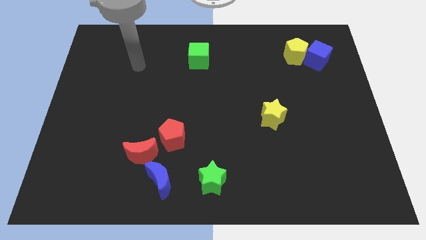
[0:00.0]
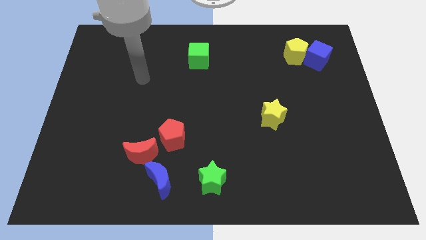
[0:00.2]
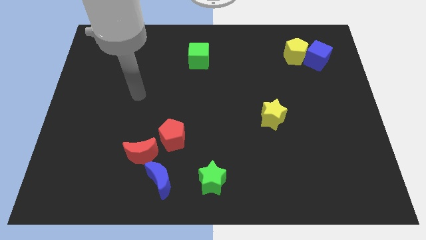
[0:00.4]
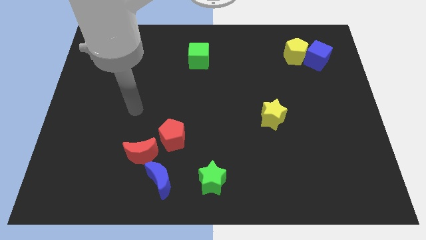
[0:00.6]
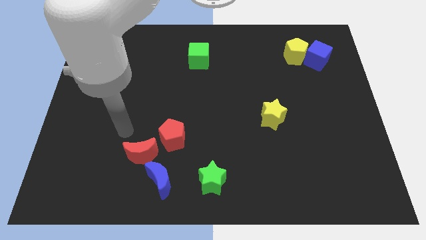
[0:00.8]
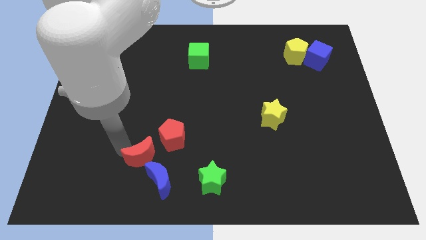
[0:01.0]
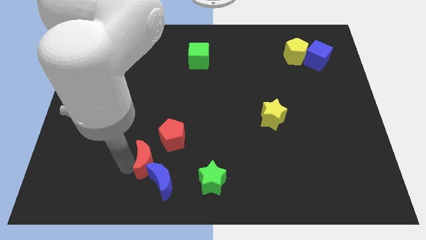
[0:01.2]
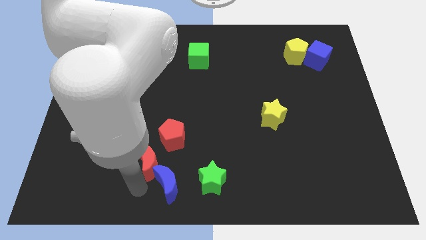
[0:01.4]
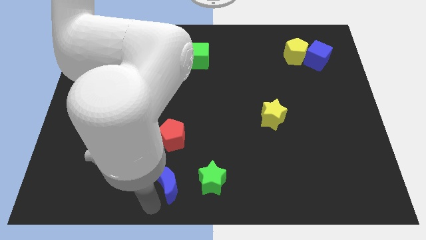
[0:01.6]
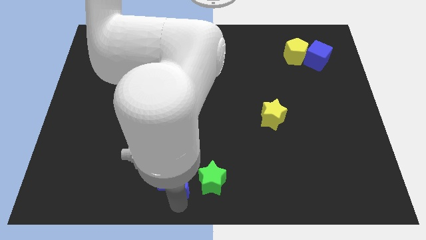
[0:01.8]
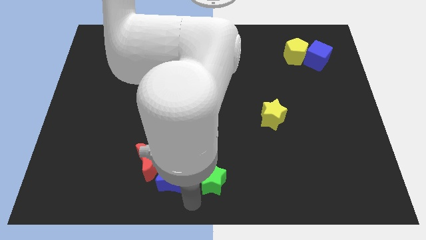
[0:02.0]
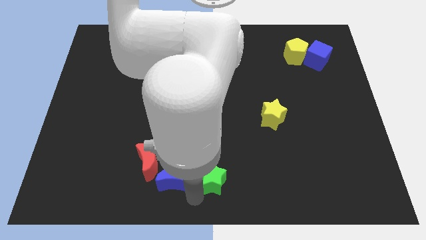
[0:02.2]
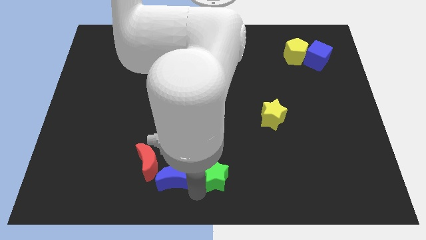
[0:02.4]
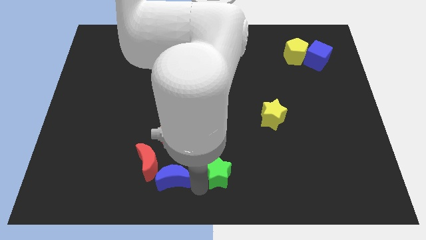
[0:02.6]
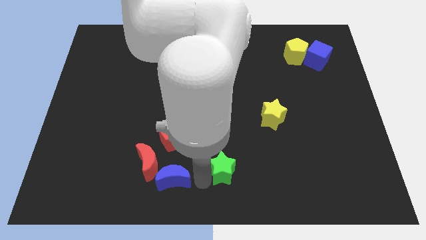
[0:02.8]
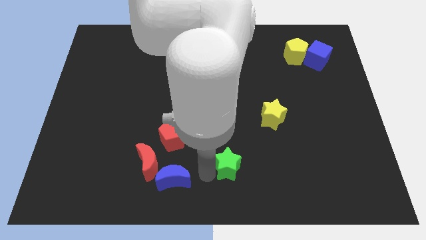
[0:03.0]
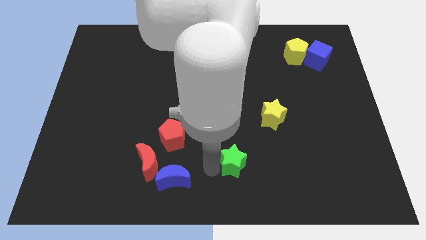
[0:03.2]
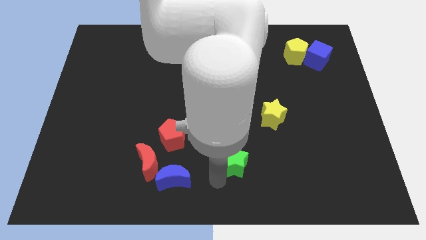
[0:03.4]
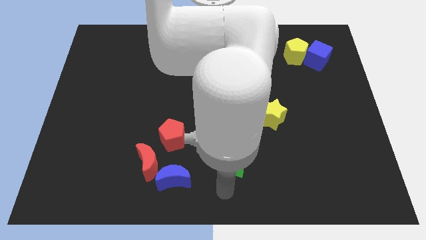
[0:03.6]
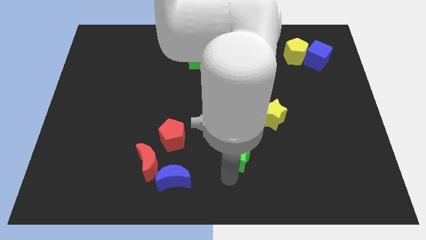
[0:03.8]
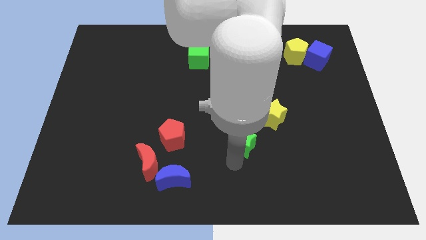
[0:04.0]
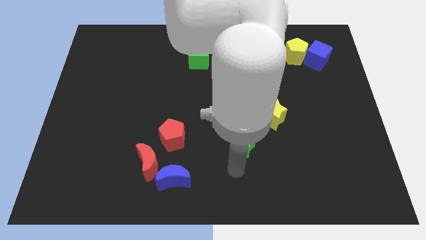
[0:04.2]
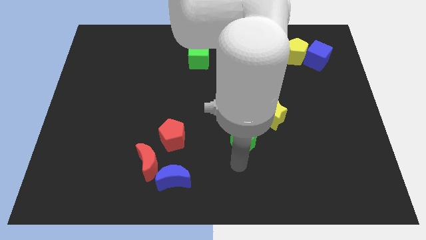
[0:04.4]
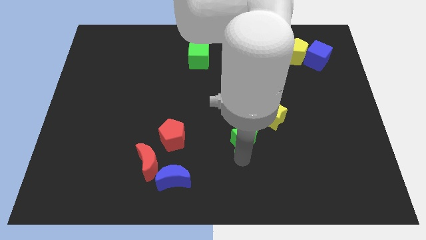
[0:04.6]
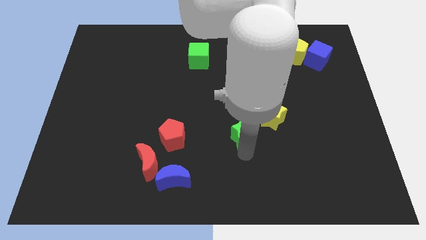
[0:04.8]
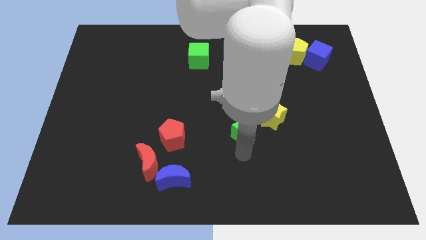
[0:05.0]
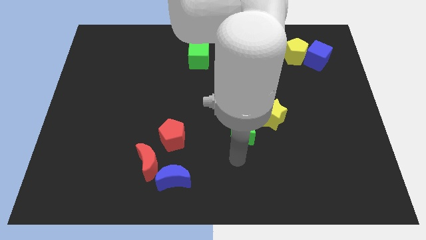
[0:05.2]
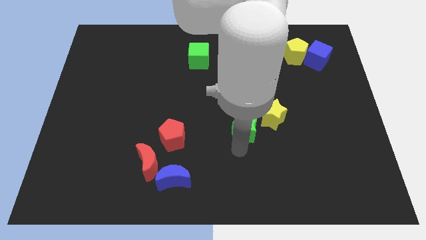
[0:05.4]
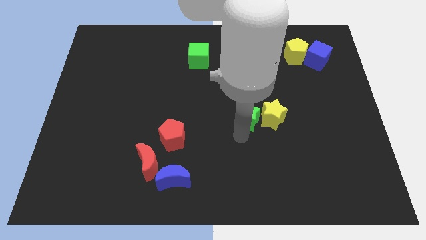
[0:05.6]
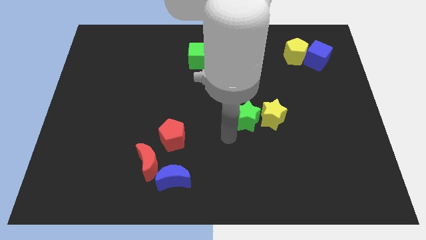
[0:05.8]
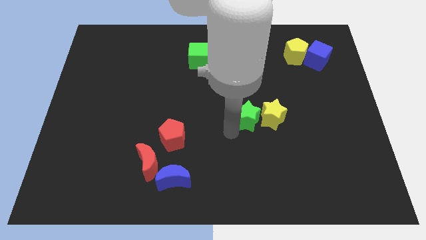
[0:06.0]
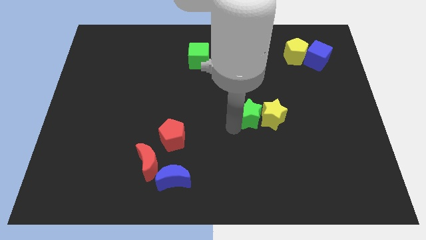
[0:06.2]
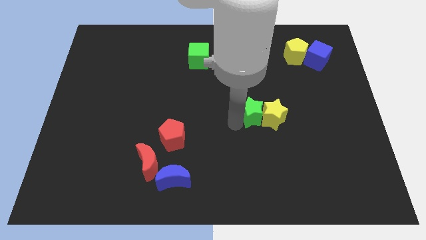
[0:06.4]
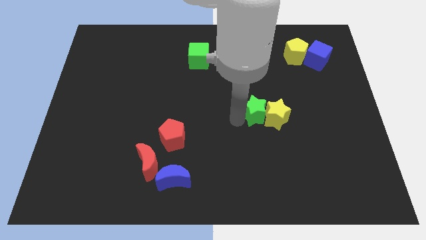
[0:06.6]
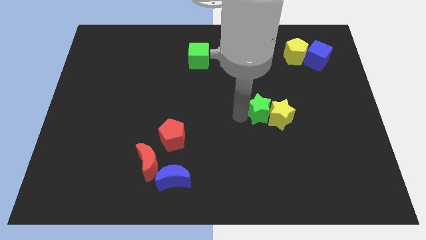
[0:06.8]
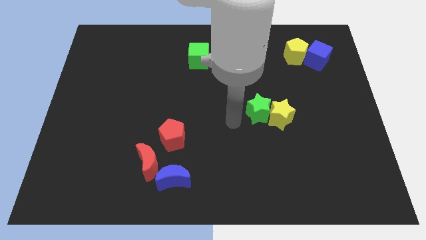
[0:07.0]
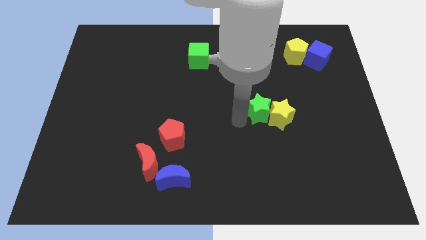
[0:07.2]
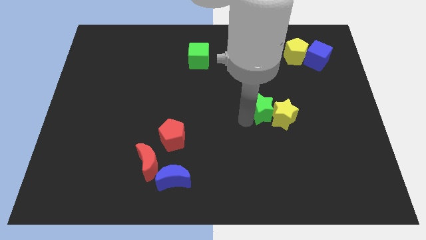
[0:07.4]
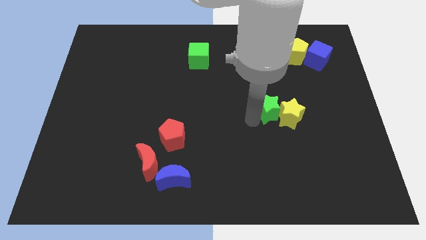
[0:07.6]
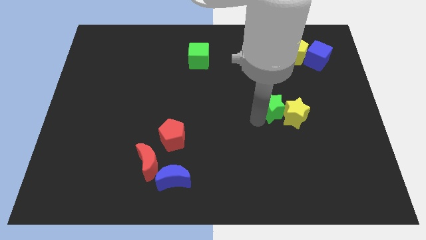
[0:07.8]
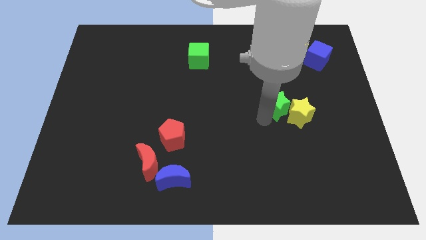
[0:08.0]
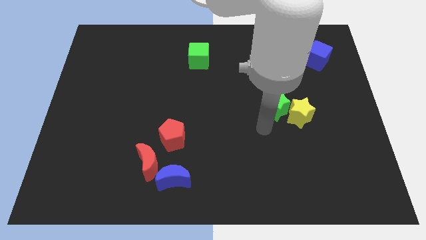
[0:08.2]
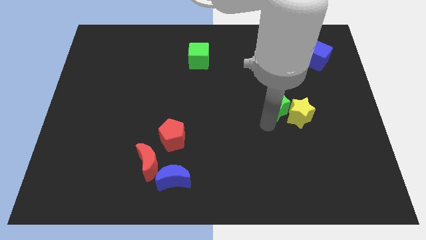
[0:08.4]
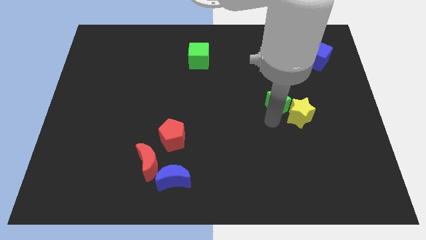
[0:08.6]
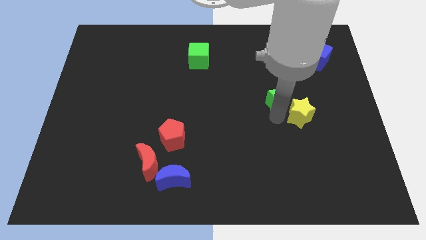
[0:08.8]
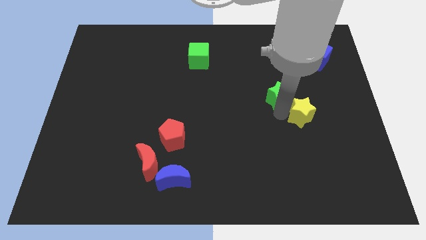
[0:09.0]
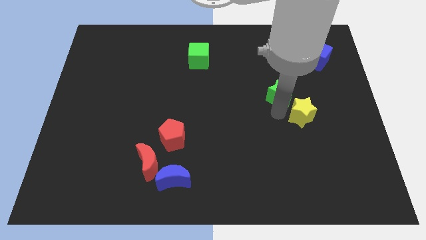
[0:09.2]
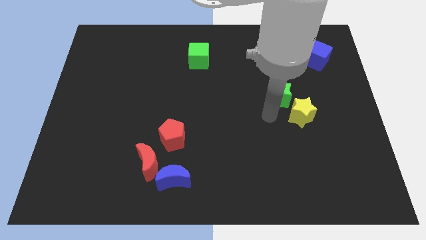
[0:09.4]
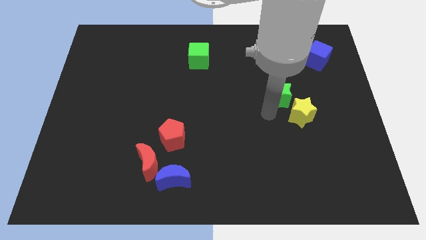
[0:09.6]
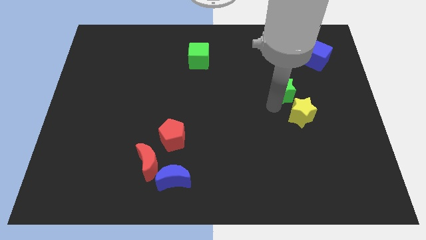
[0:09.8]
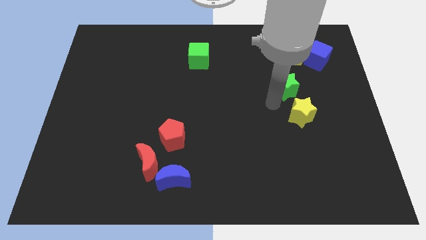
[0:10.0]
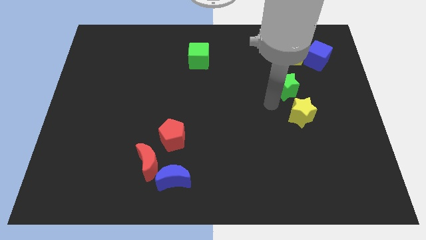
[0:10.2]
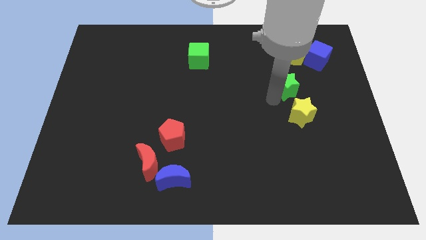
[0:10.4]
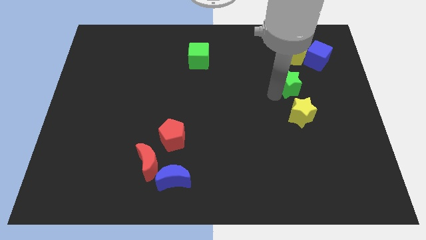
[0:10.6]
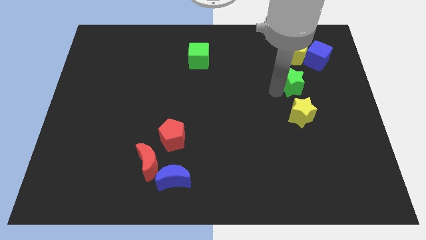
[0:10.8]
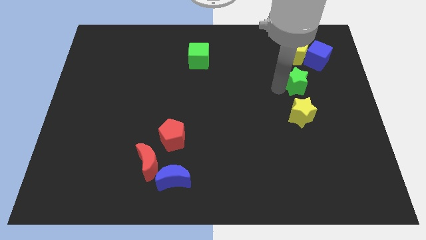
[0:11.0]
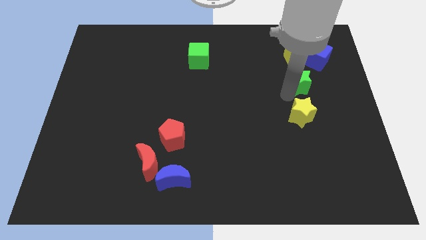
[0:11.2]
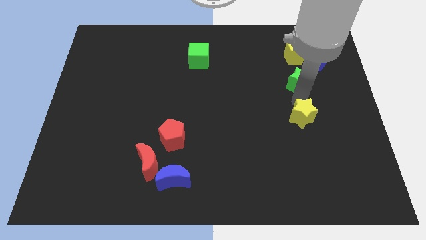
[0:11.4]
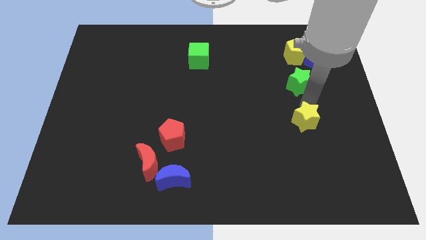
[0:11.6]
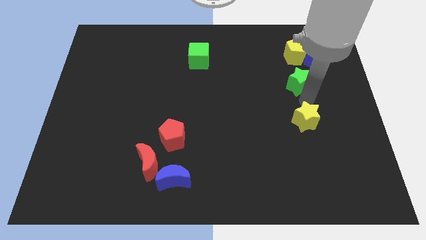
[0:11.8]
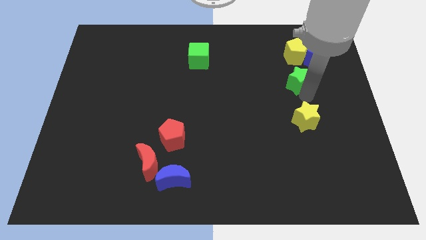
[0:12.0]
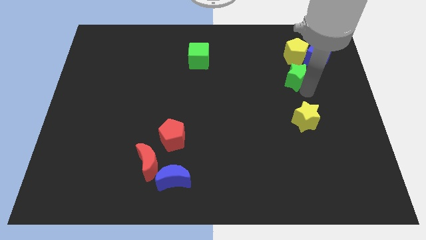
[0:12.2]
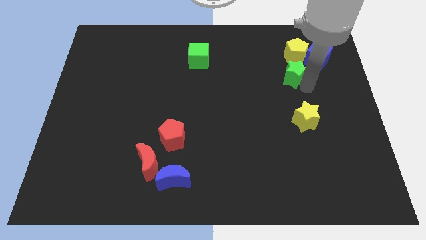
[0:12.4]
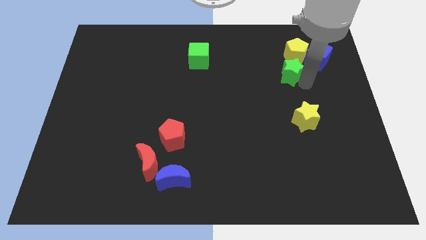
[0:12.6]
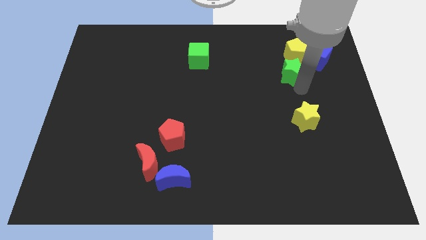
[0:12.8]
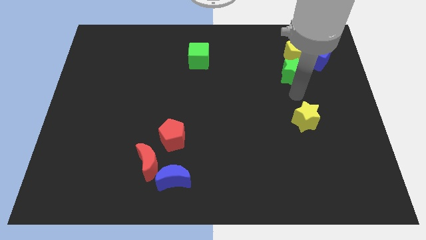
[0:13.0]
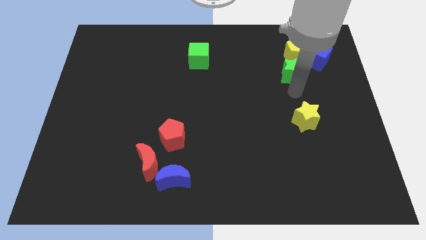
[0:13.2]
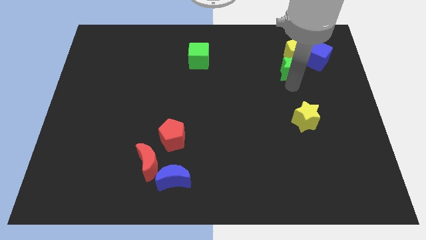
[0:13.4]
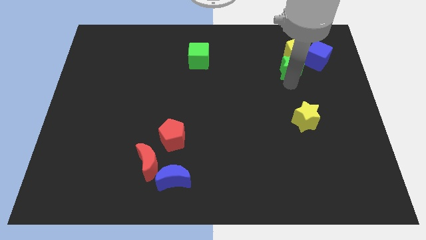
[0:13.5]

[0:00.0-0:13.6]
push the green star to the yellow pentagon
